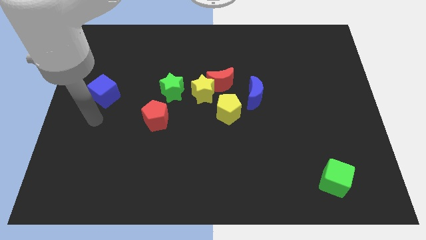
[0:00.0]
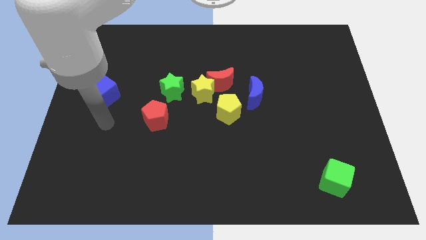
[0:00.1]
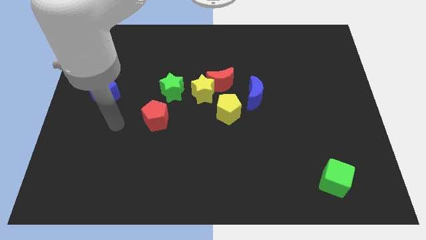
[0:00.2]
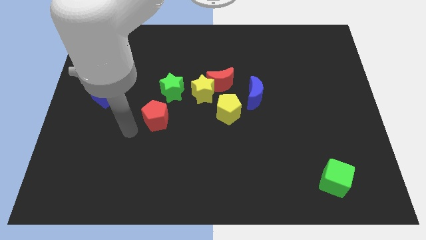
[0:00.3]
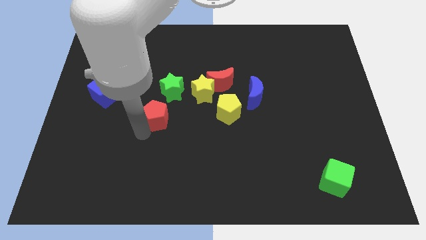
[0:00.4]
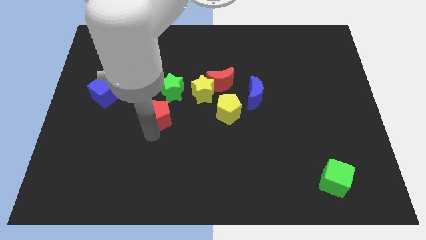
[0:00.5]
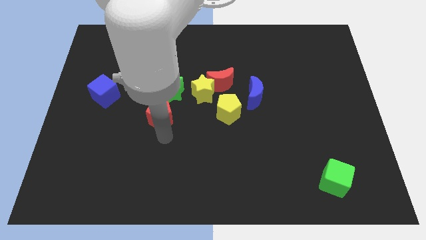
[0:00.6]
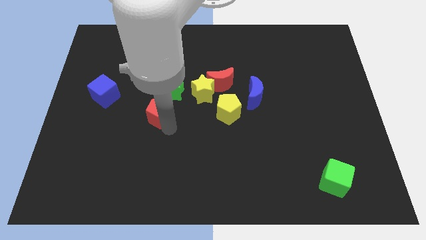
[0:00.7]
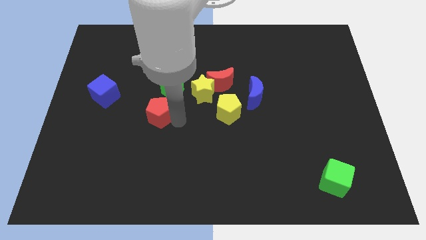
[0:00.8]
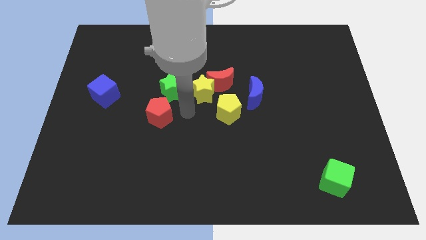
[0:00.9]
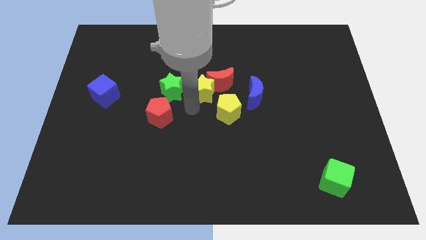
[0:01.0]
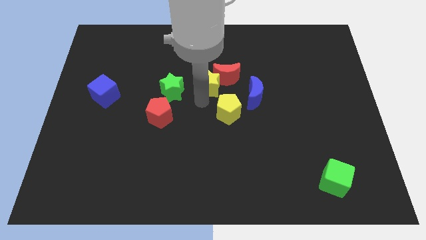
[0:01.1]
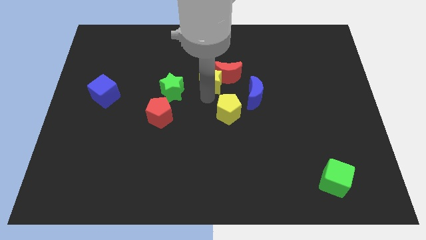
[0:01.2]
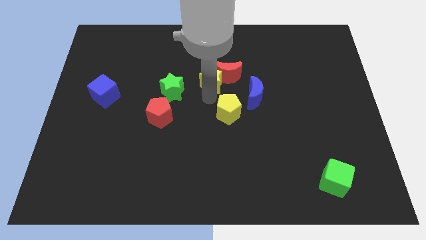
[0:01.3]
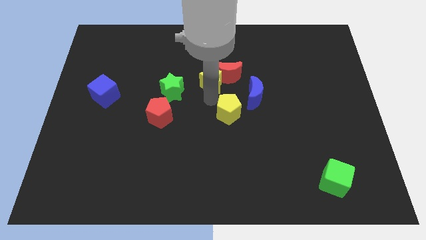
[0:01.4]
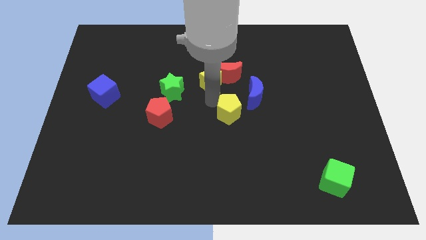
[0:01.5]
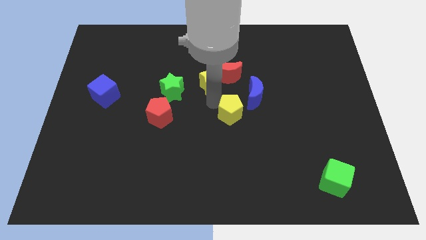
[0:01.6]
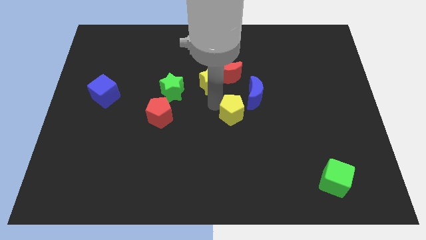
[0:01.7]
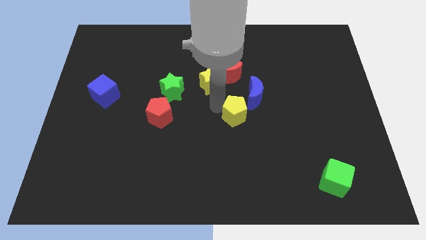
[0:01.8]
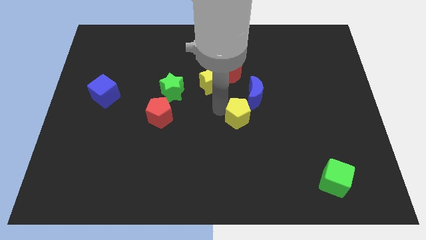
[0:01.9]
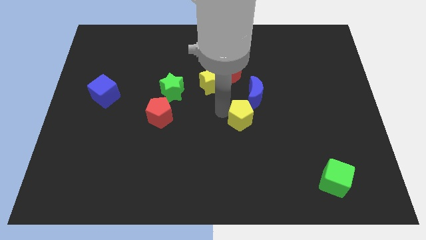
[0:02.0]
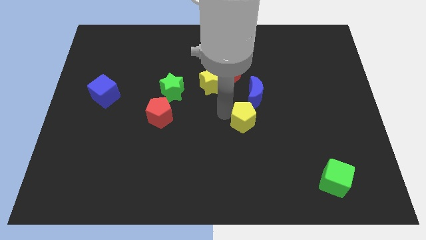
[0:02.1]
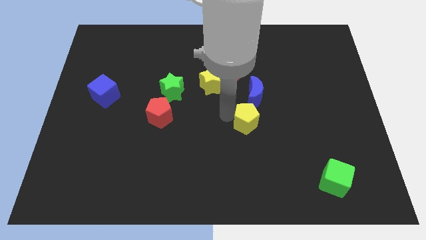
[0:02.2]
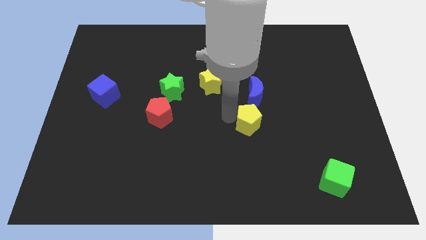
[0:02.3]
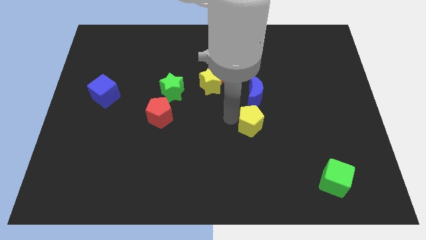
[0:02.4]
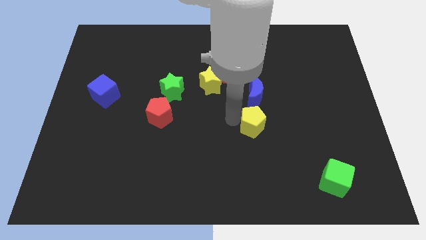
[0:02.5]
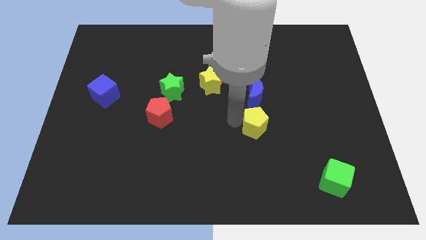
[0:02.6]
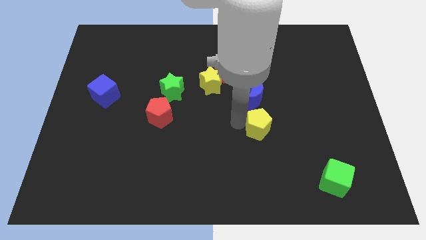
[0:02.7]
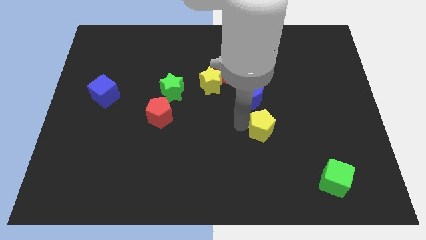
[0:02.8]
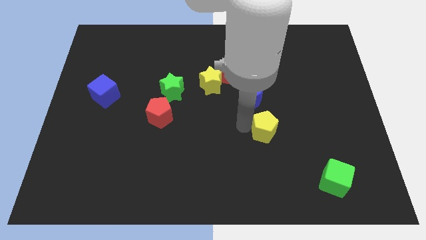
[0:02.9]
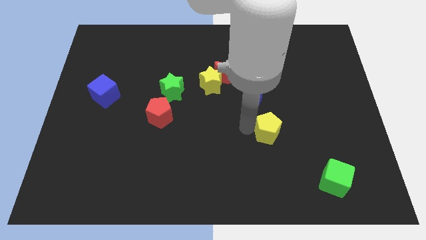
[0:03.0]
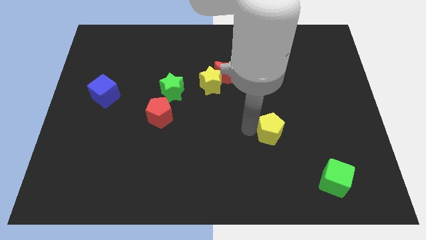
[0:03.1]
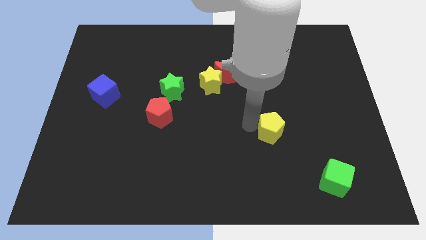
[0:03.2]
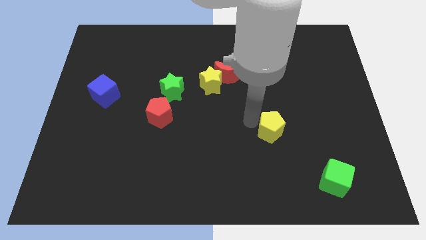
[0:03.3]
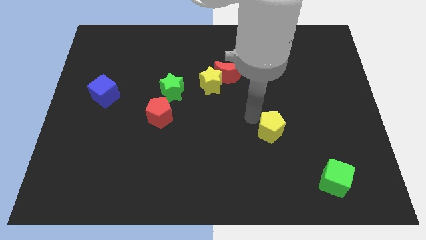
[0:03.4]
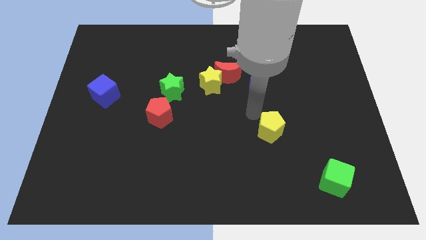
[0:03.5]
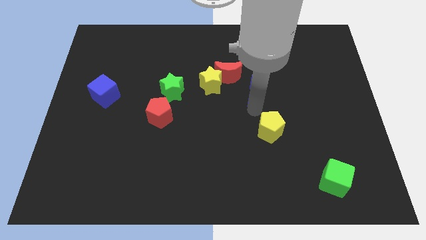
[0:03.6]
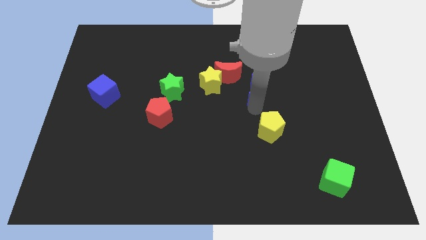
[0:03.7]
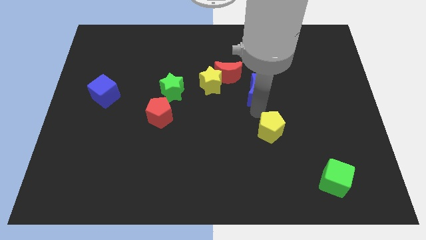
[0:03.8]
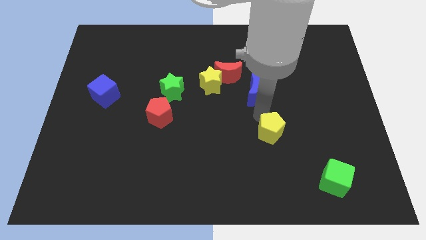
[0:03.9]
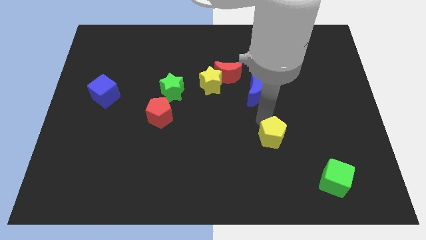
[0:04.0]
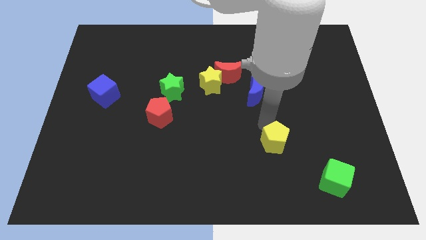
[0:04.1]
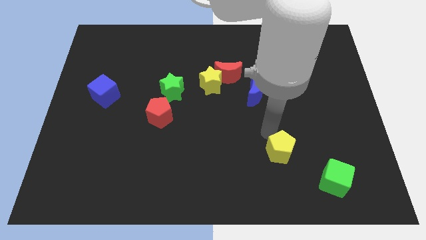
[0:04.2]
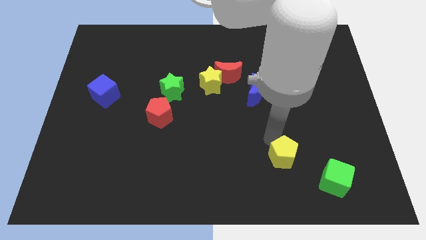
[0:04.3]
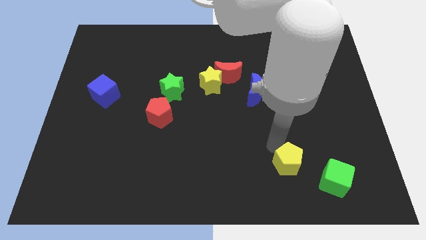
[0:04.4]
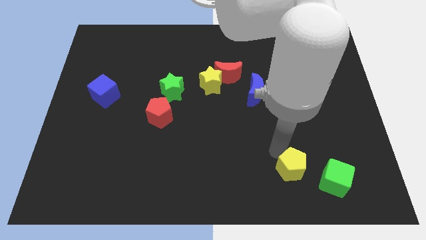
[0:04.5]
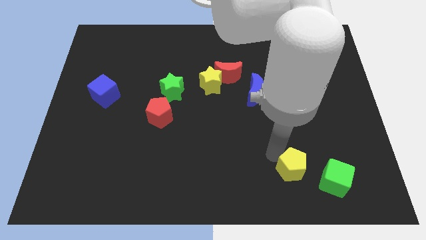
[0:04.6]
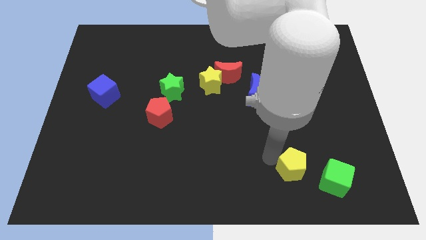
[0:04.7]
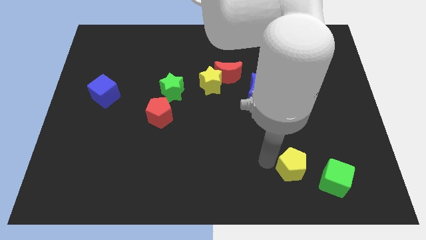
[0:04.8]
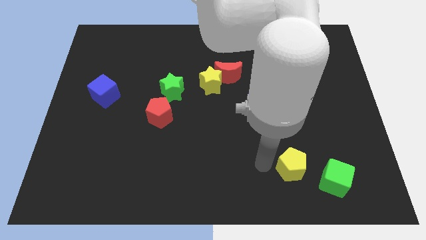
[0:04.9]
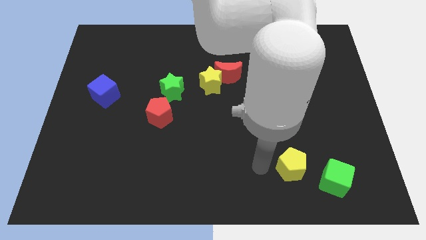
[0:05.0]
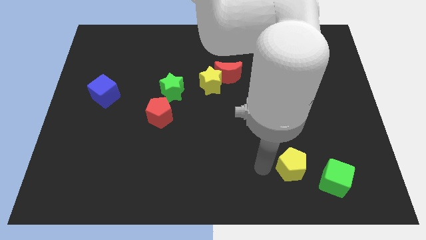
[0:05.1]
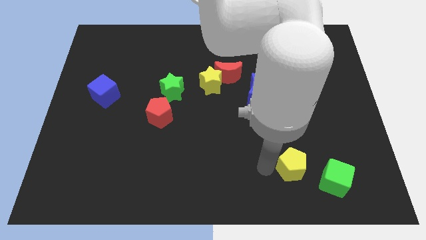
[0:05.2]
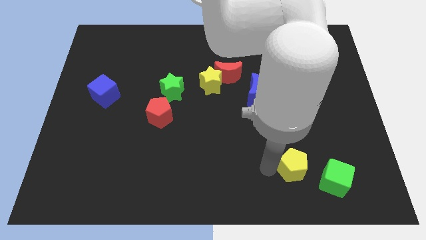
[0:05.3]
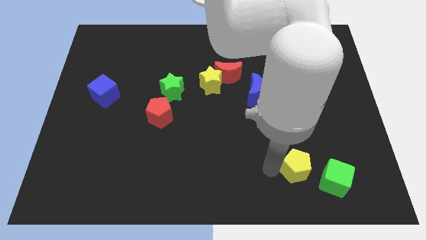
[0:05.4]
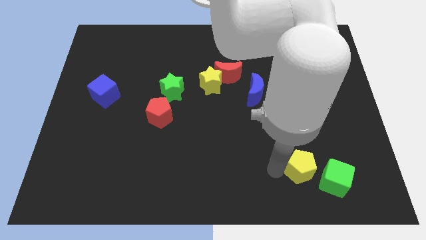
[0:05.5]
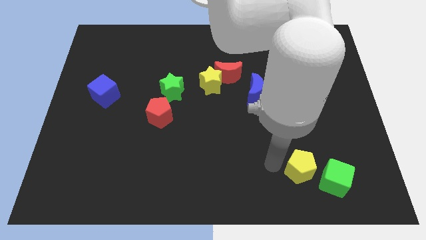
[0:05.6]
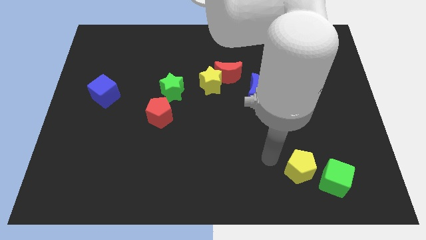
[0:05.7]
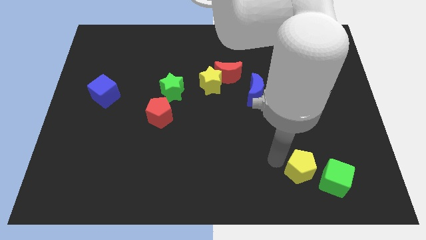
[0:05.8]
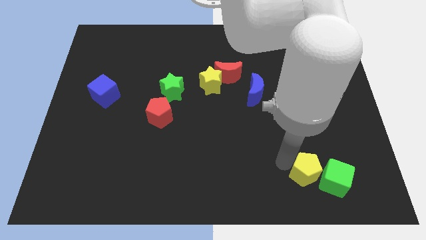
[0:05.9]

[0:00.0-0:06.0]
push the yellow pentagon close to the green cube

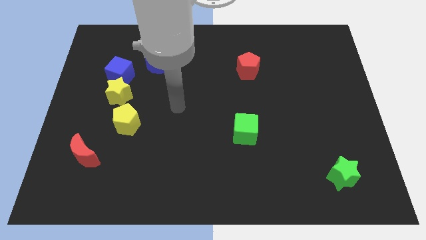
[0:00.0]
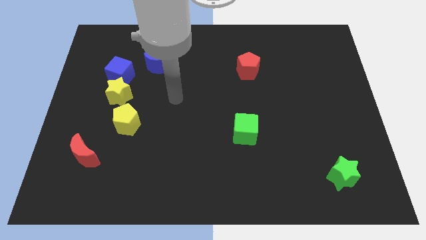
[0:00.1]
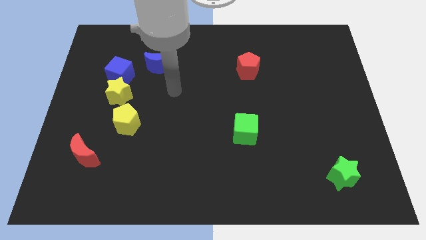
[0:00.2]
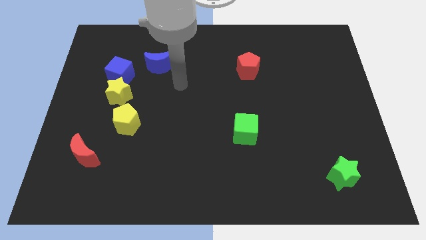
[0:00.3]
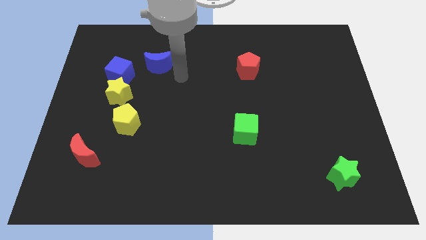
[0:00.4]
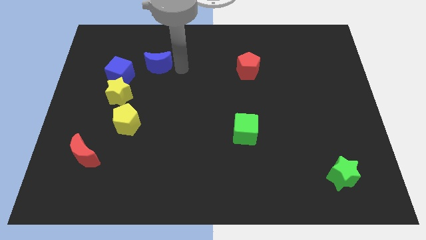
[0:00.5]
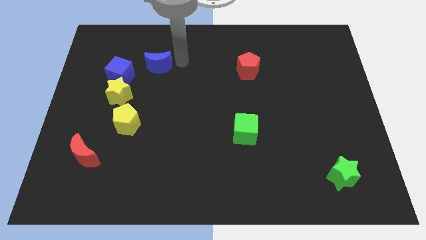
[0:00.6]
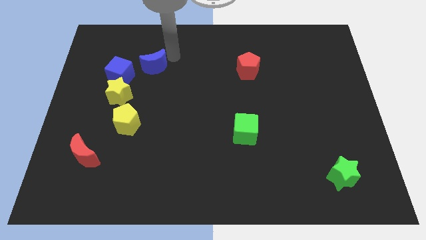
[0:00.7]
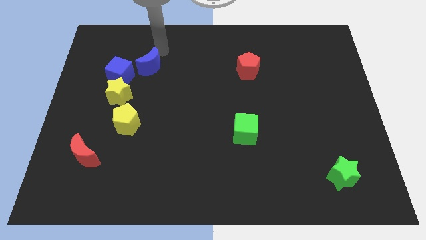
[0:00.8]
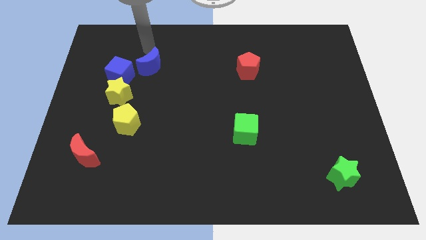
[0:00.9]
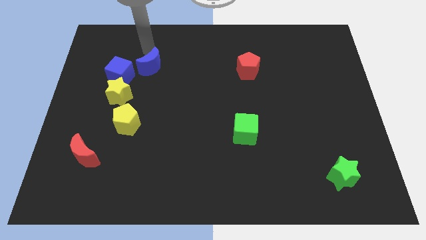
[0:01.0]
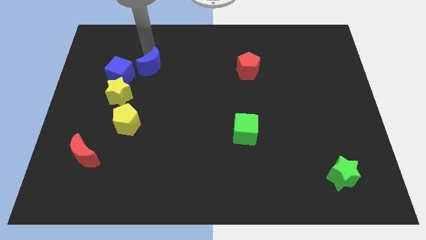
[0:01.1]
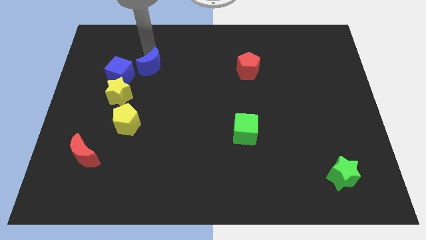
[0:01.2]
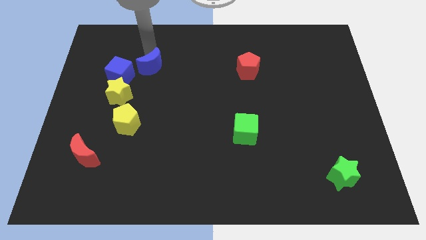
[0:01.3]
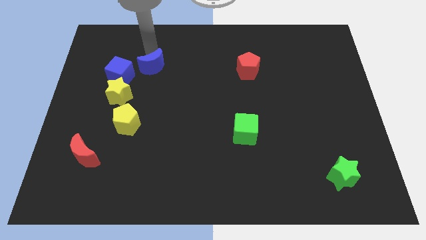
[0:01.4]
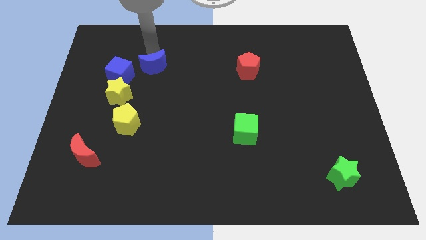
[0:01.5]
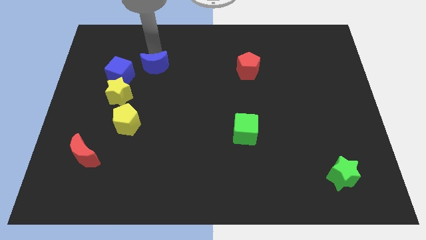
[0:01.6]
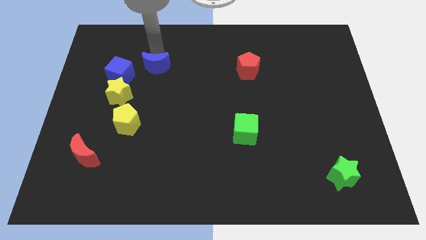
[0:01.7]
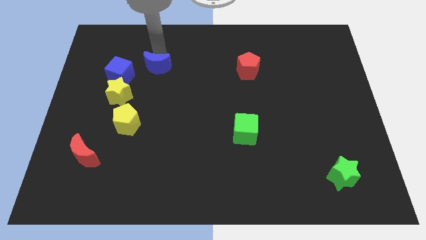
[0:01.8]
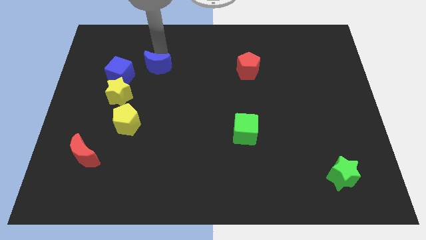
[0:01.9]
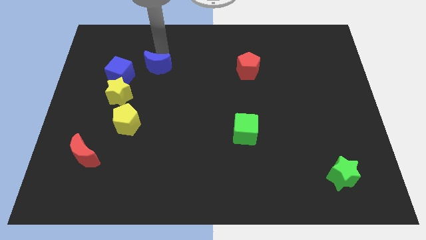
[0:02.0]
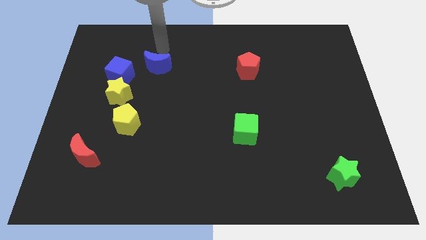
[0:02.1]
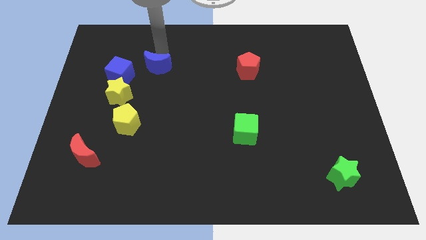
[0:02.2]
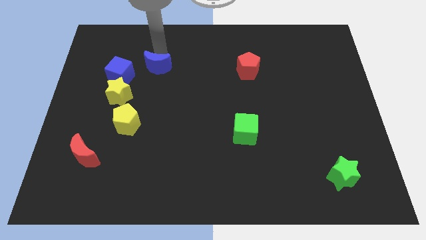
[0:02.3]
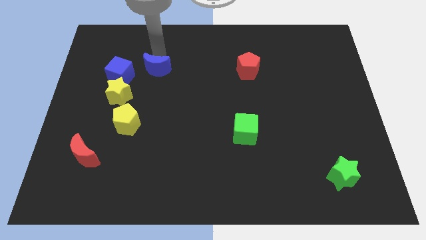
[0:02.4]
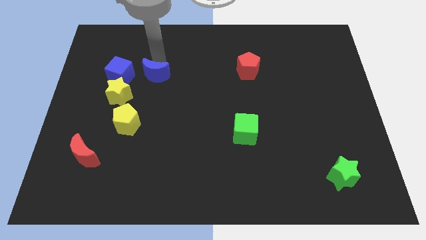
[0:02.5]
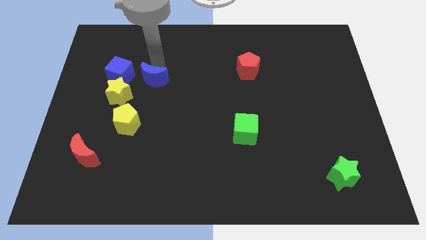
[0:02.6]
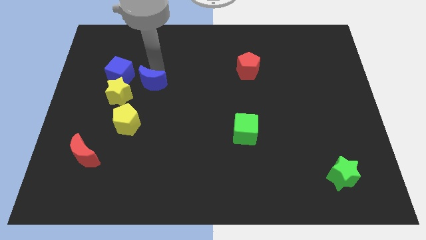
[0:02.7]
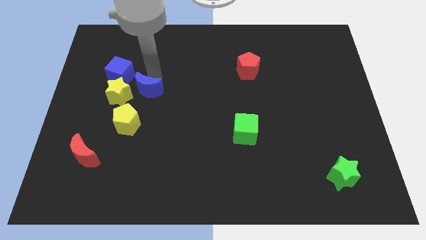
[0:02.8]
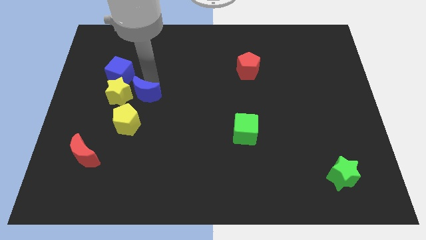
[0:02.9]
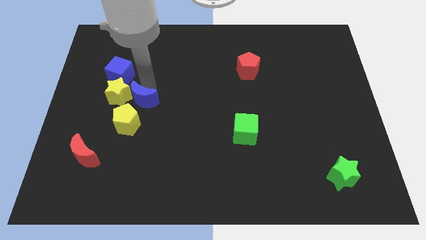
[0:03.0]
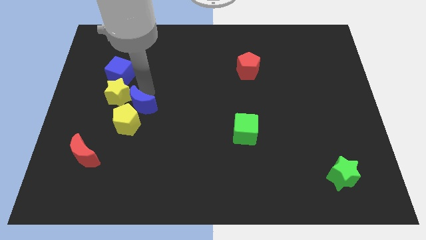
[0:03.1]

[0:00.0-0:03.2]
move the blue moon towards the yellow pentagon
